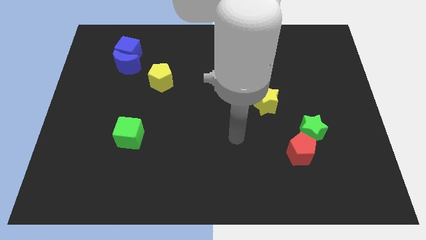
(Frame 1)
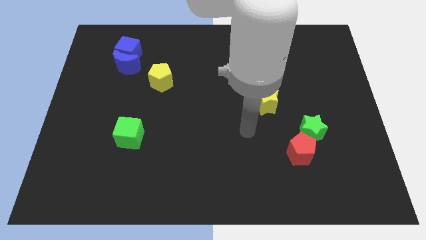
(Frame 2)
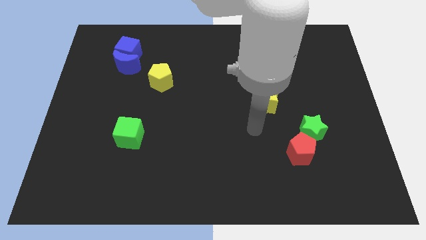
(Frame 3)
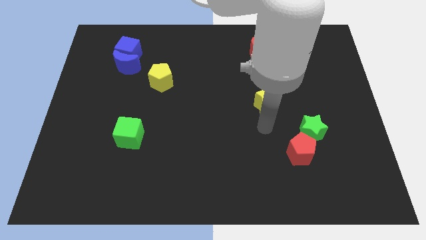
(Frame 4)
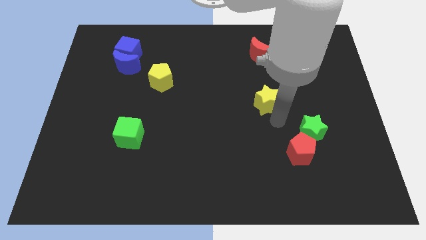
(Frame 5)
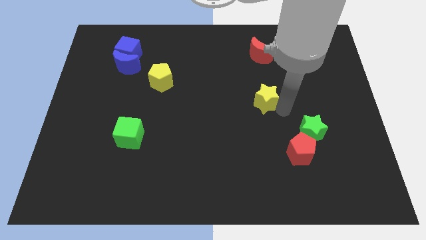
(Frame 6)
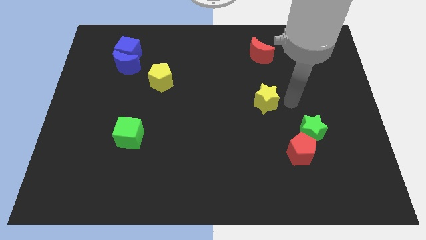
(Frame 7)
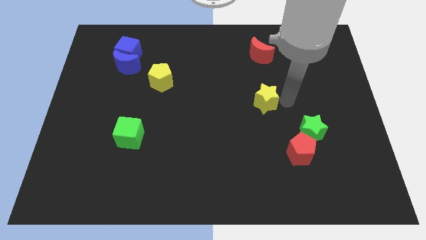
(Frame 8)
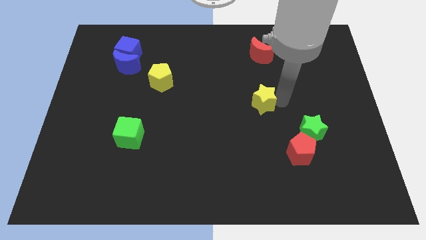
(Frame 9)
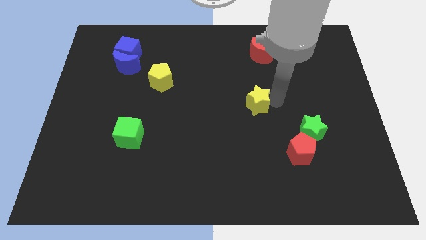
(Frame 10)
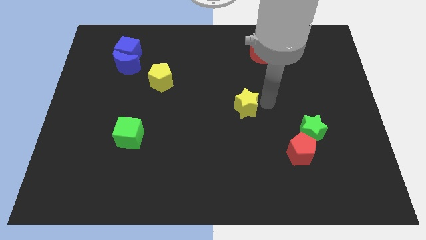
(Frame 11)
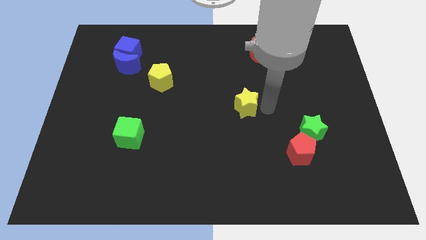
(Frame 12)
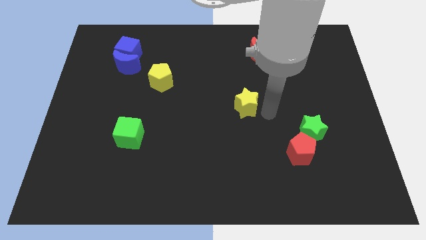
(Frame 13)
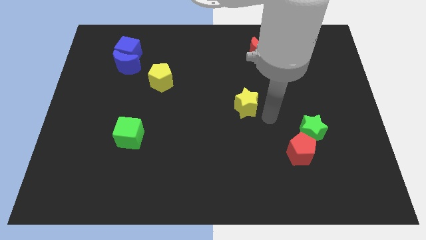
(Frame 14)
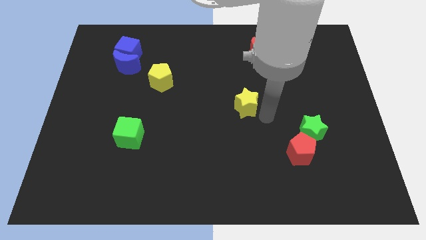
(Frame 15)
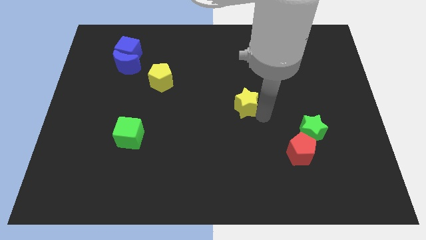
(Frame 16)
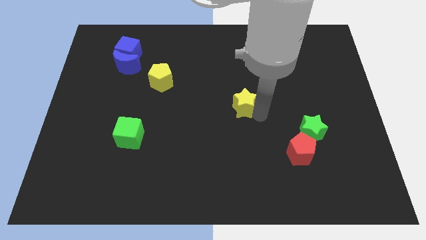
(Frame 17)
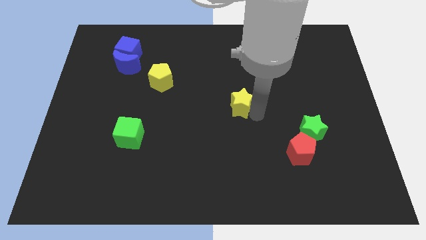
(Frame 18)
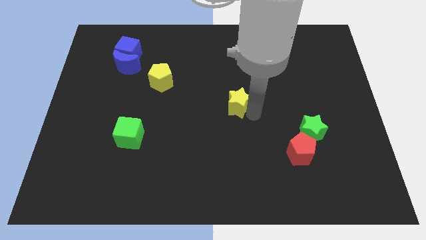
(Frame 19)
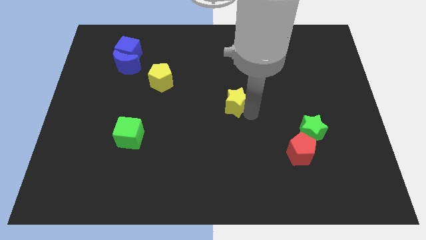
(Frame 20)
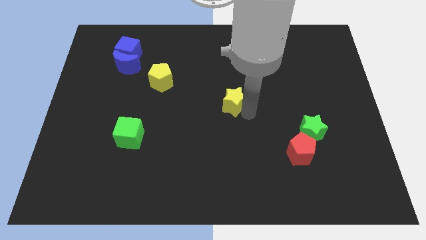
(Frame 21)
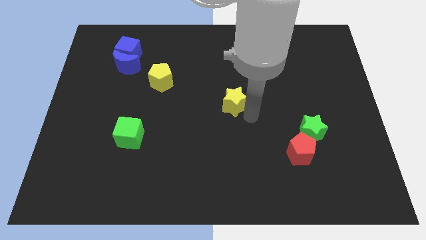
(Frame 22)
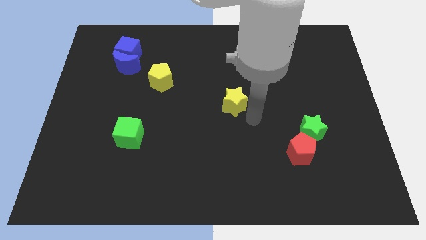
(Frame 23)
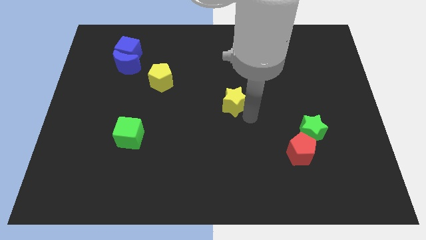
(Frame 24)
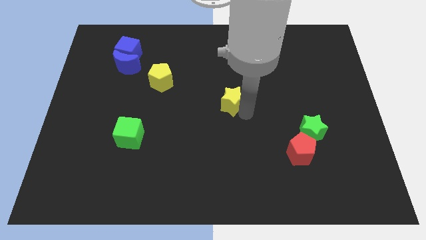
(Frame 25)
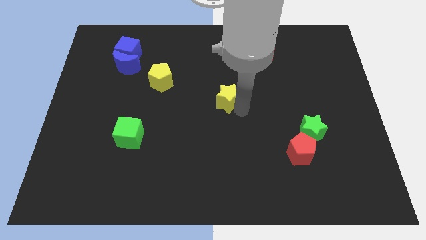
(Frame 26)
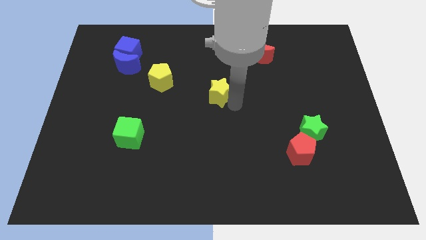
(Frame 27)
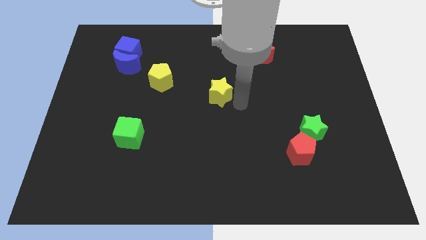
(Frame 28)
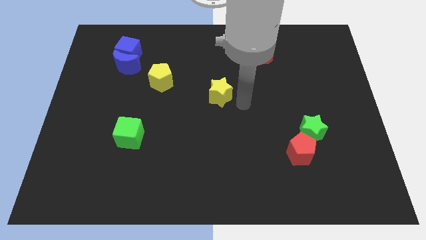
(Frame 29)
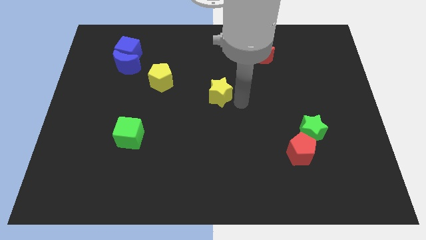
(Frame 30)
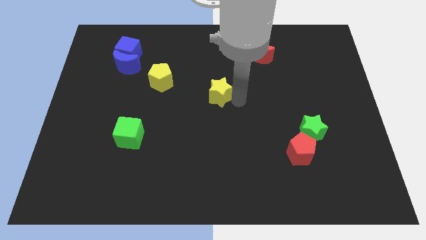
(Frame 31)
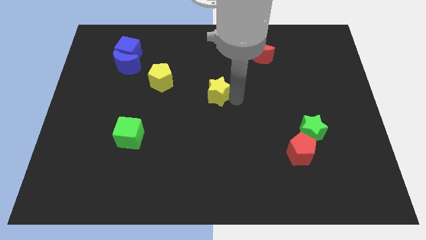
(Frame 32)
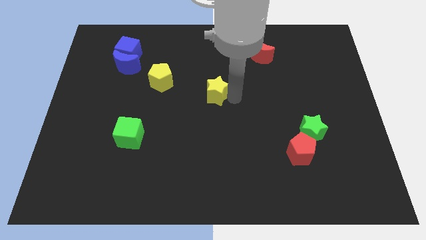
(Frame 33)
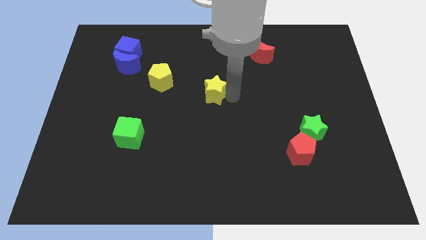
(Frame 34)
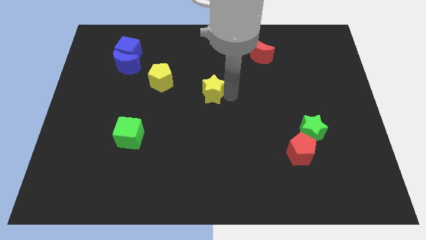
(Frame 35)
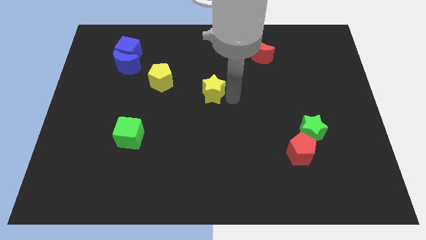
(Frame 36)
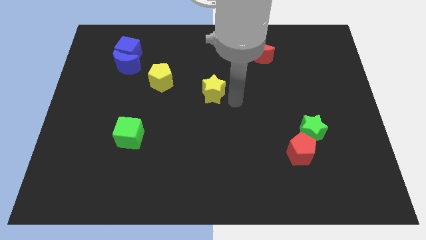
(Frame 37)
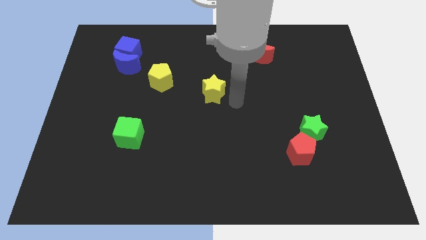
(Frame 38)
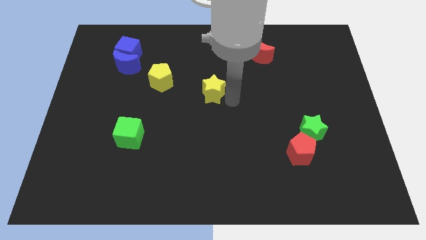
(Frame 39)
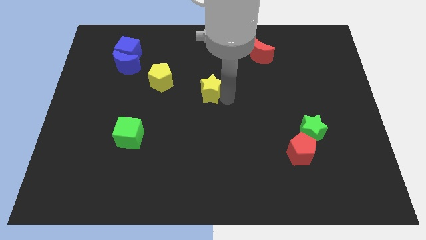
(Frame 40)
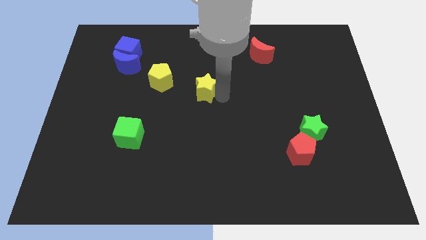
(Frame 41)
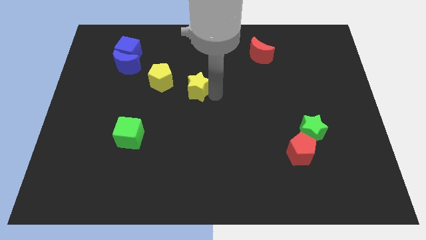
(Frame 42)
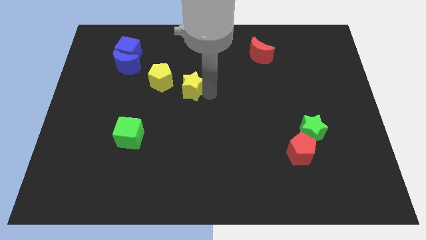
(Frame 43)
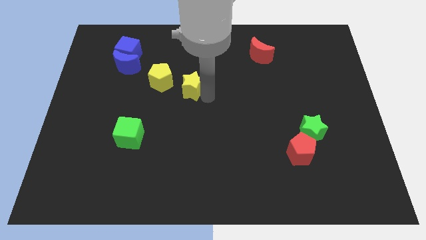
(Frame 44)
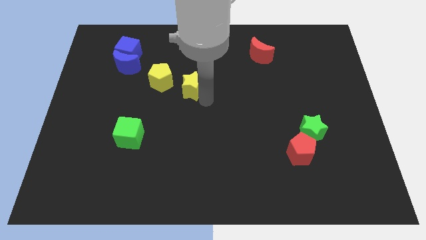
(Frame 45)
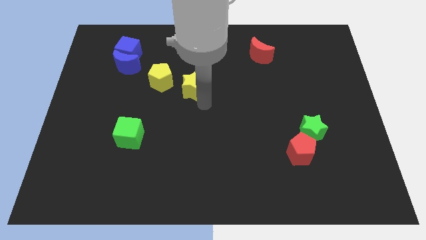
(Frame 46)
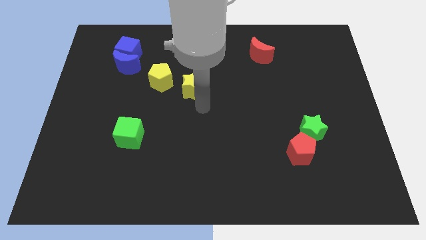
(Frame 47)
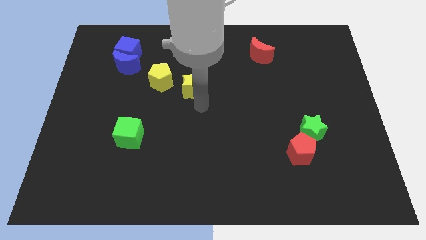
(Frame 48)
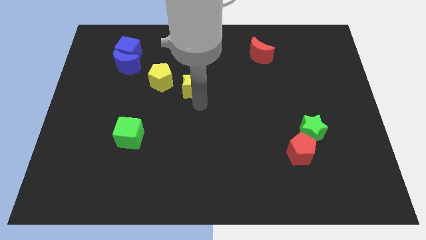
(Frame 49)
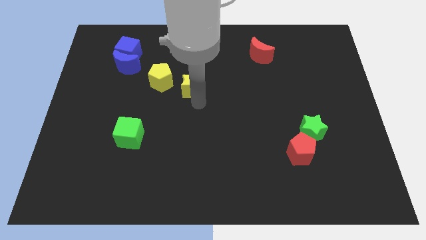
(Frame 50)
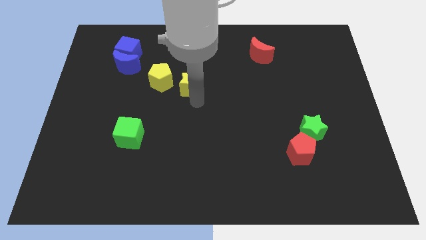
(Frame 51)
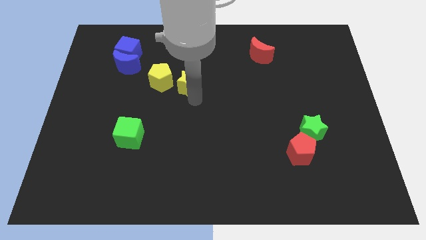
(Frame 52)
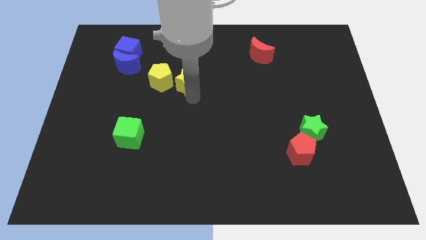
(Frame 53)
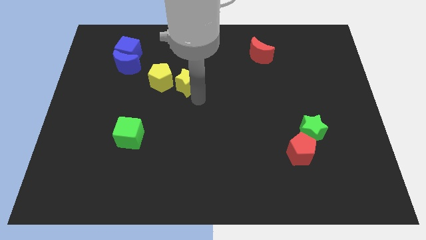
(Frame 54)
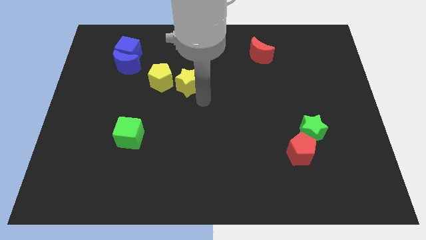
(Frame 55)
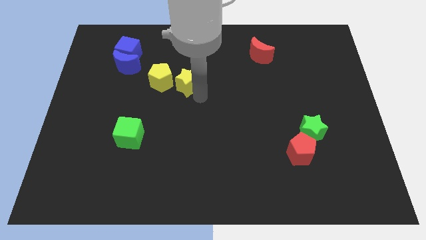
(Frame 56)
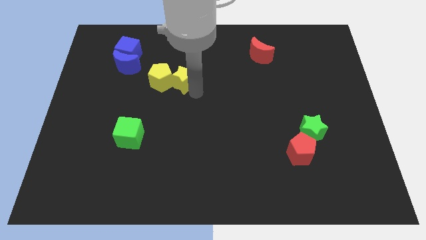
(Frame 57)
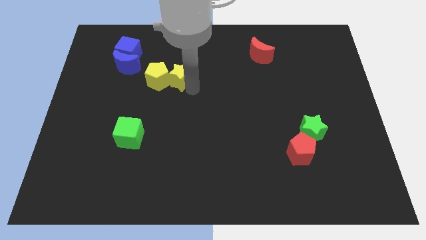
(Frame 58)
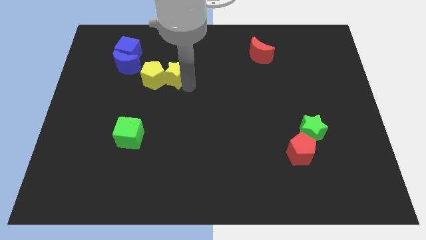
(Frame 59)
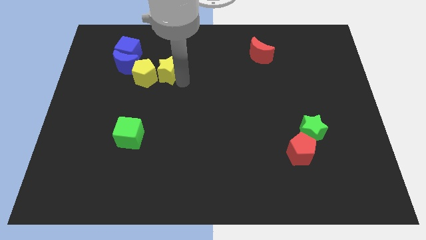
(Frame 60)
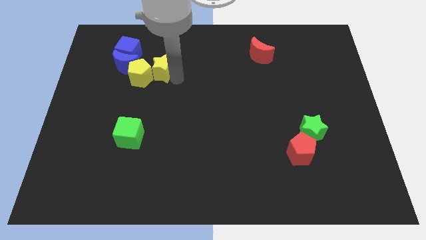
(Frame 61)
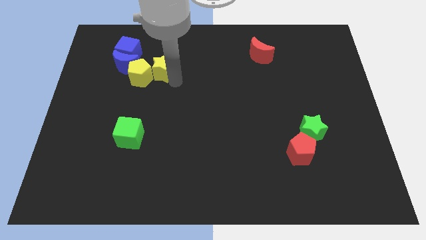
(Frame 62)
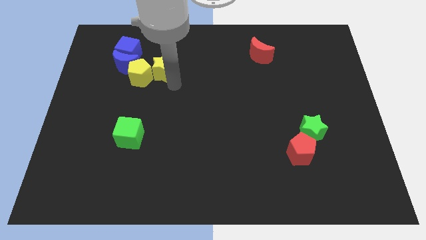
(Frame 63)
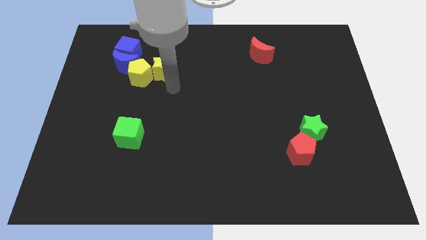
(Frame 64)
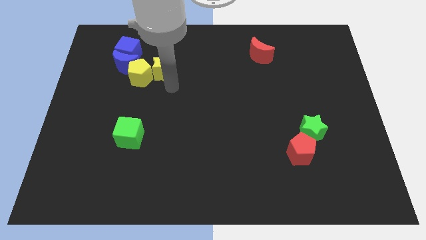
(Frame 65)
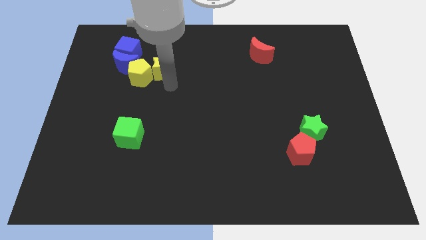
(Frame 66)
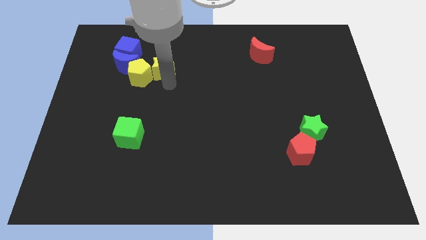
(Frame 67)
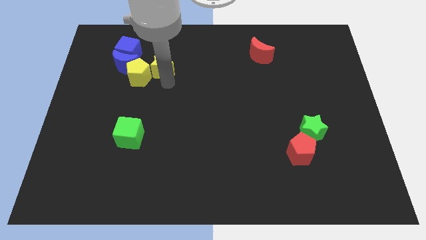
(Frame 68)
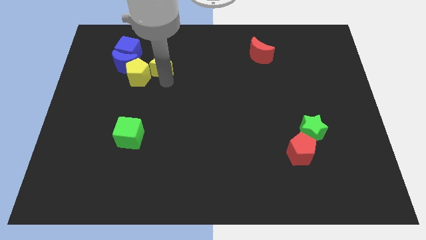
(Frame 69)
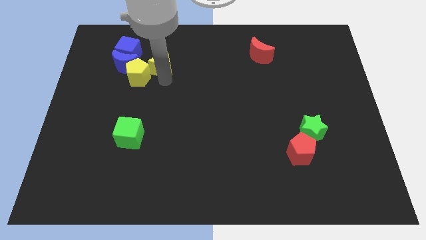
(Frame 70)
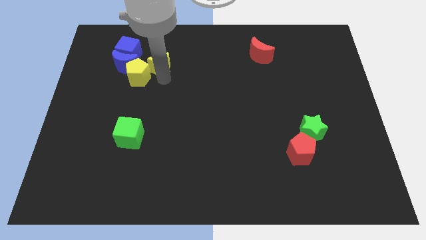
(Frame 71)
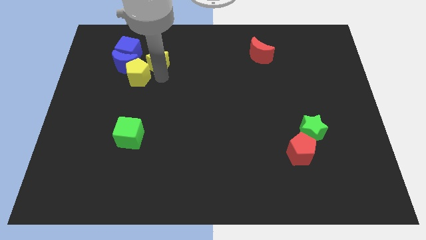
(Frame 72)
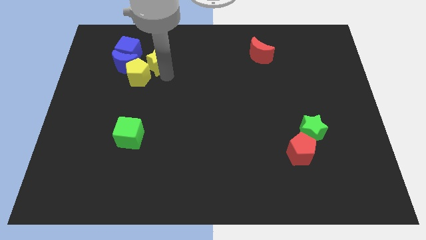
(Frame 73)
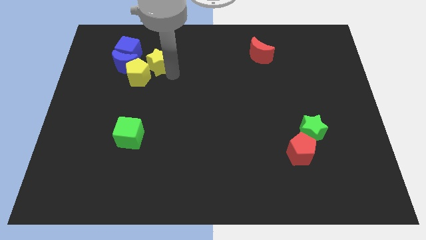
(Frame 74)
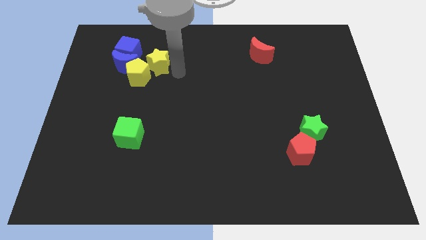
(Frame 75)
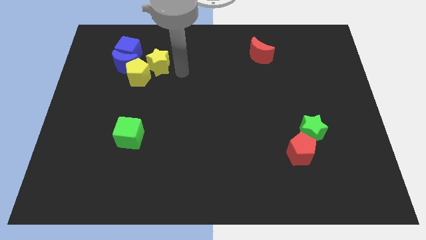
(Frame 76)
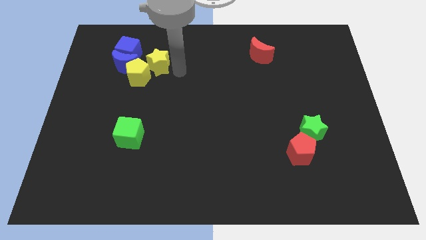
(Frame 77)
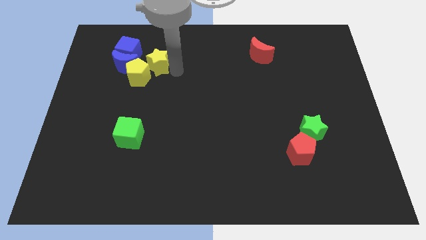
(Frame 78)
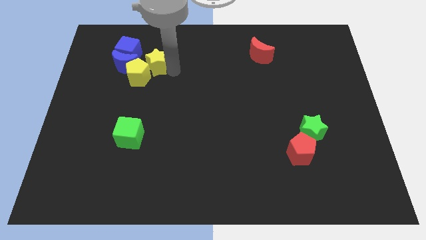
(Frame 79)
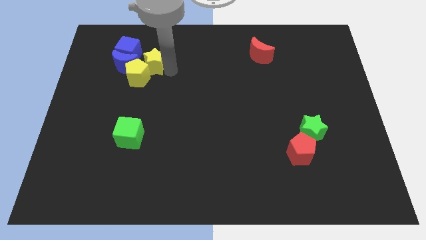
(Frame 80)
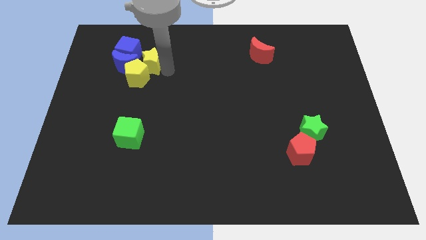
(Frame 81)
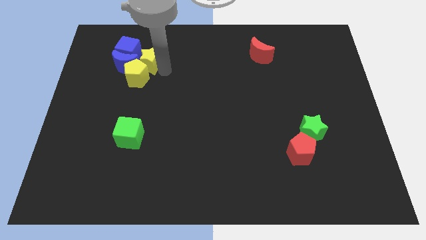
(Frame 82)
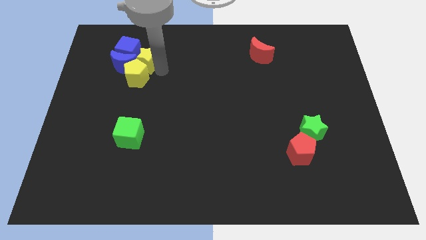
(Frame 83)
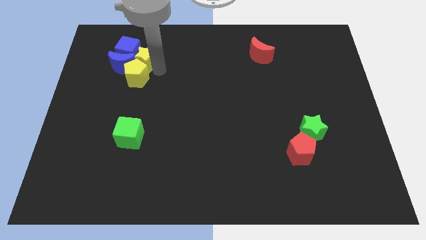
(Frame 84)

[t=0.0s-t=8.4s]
push the yellow star towards the blue cube
